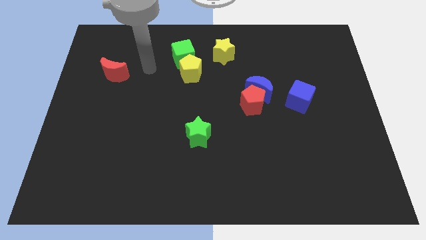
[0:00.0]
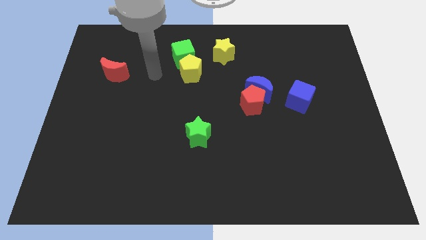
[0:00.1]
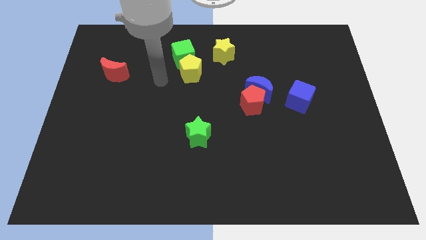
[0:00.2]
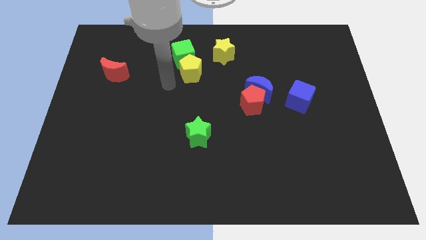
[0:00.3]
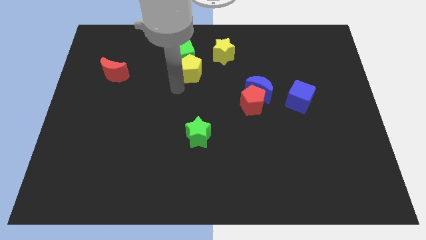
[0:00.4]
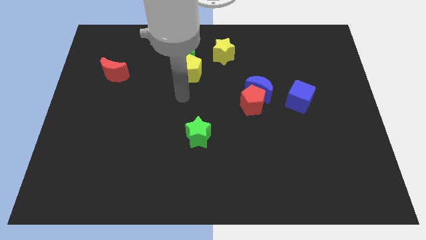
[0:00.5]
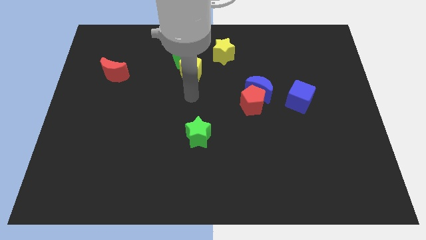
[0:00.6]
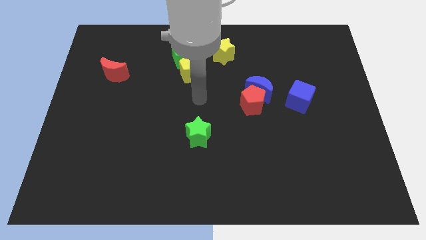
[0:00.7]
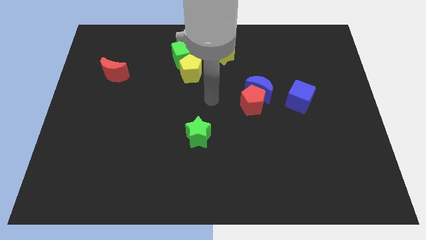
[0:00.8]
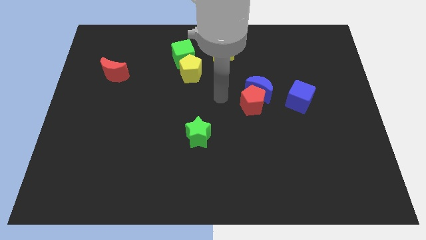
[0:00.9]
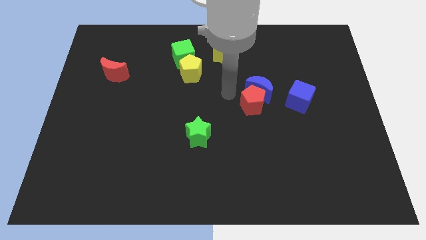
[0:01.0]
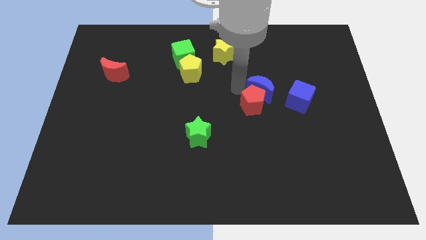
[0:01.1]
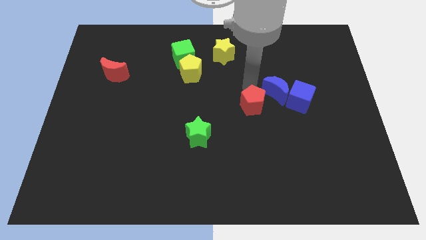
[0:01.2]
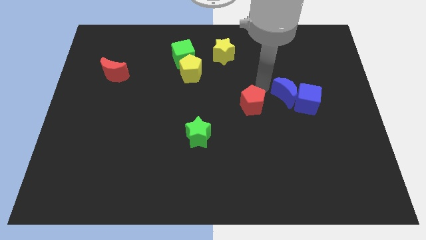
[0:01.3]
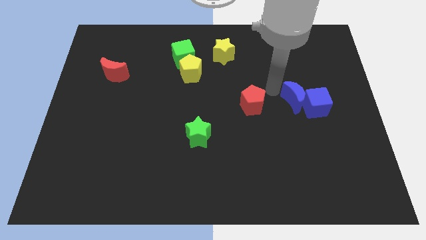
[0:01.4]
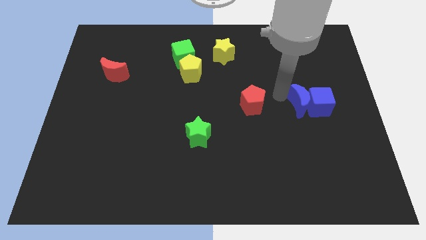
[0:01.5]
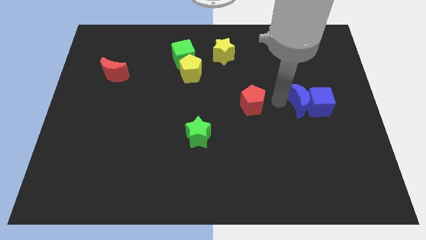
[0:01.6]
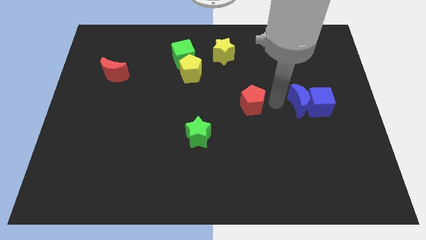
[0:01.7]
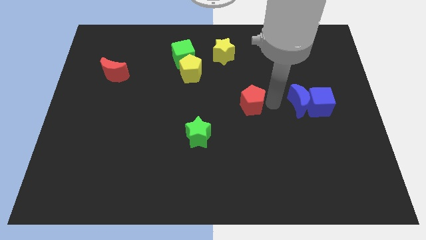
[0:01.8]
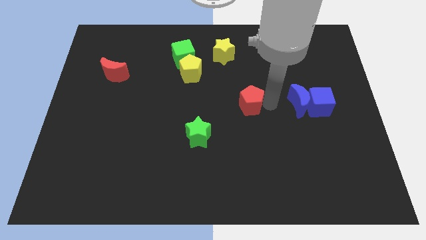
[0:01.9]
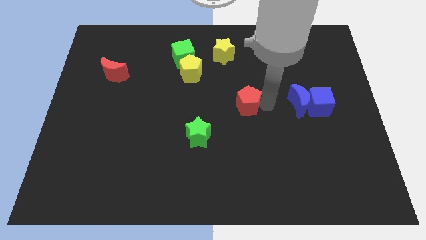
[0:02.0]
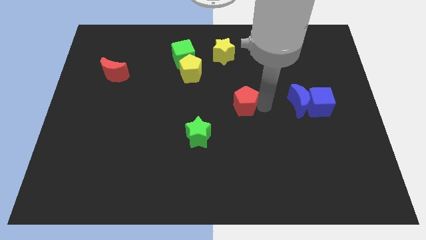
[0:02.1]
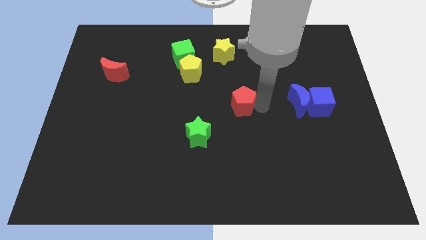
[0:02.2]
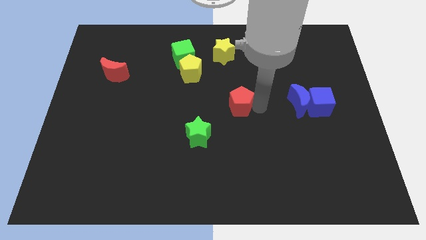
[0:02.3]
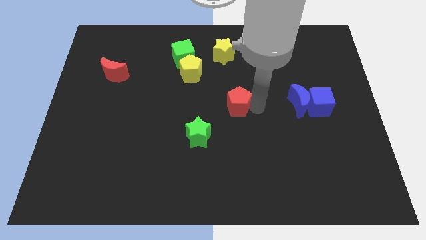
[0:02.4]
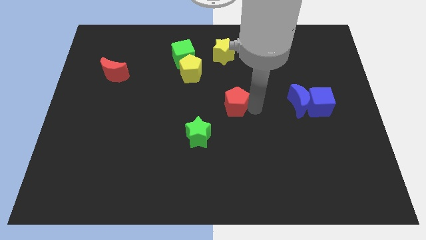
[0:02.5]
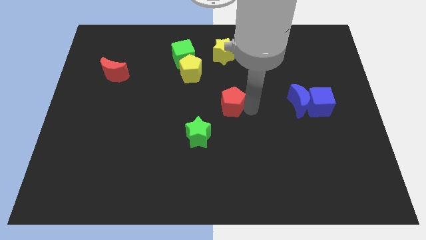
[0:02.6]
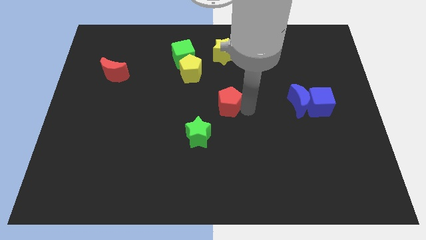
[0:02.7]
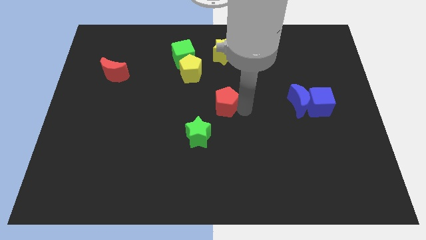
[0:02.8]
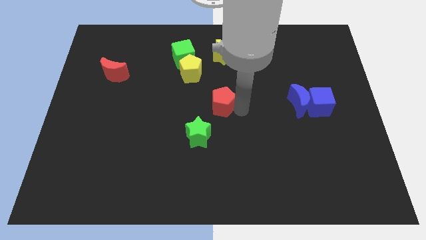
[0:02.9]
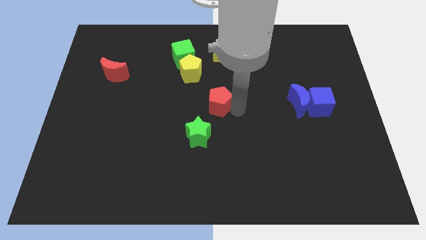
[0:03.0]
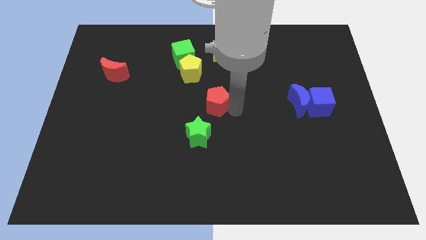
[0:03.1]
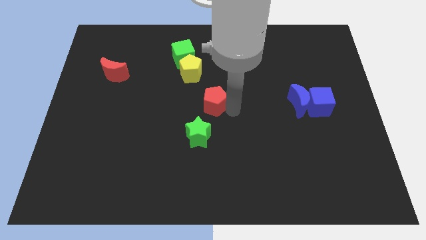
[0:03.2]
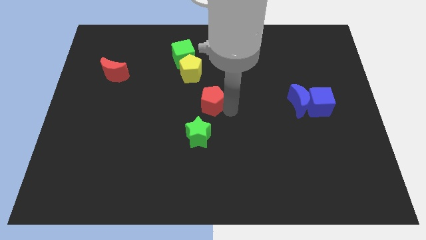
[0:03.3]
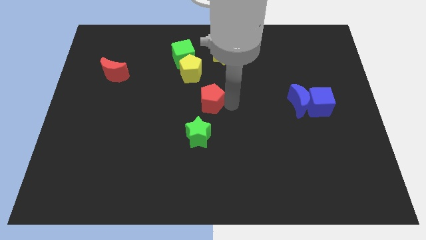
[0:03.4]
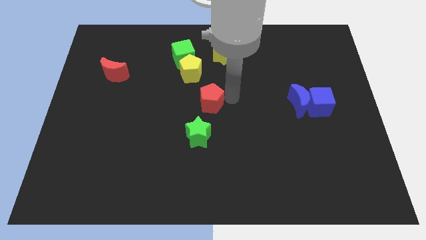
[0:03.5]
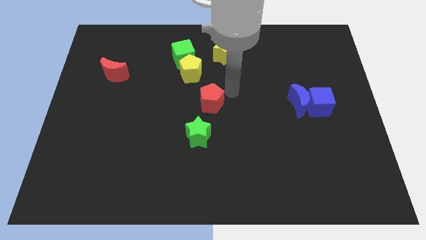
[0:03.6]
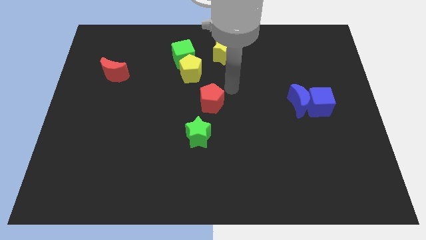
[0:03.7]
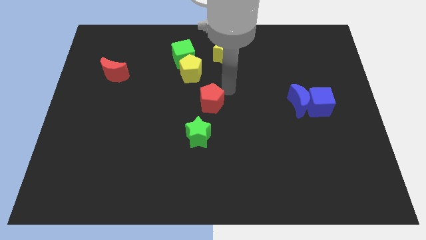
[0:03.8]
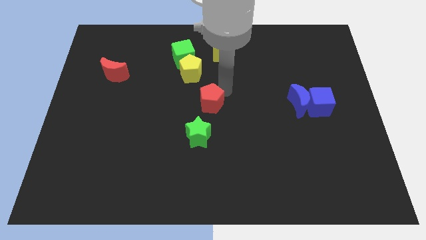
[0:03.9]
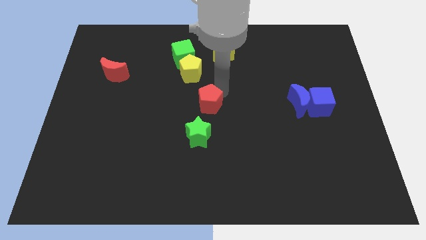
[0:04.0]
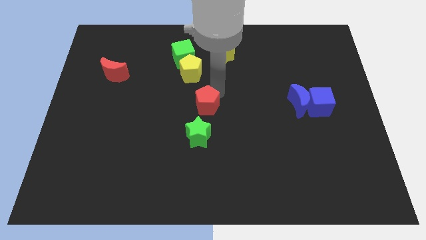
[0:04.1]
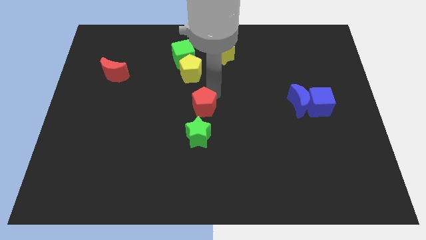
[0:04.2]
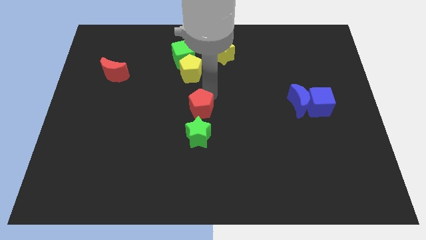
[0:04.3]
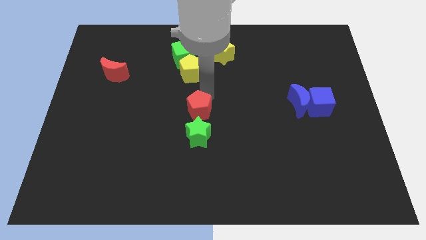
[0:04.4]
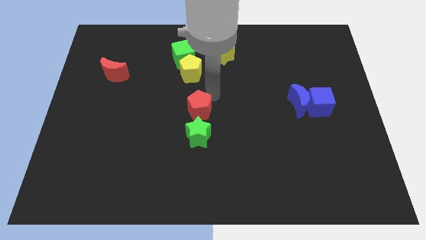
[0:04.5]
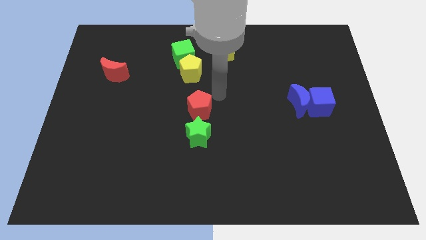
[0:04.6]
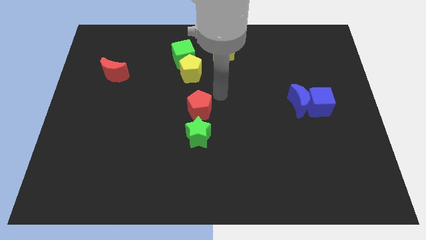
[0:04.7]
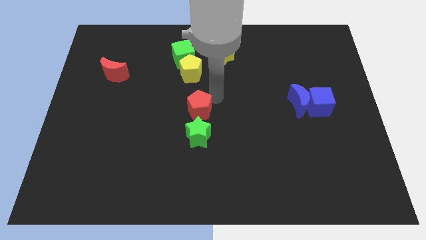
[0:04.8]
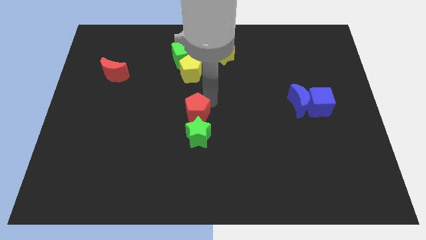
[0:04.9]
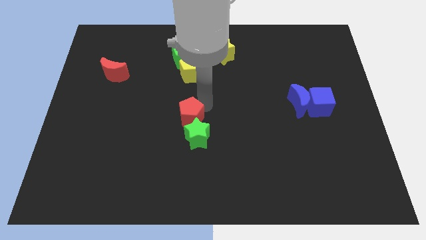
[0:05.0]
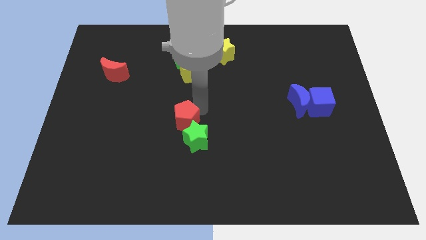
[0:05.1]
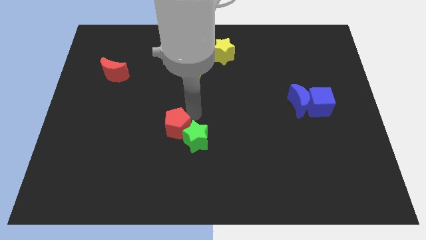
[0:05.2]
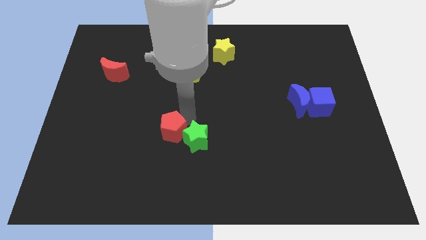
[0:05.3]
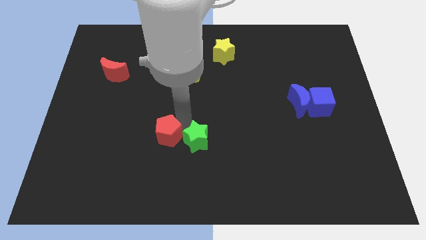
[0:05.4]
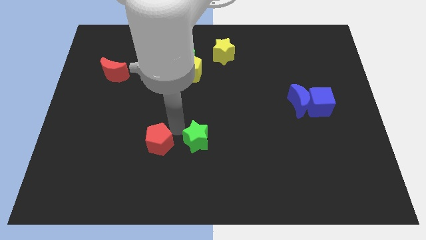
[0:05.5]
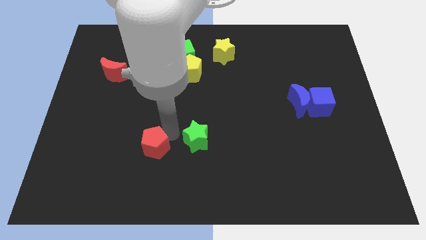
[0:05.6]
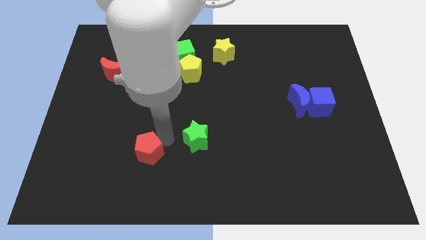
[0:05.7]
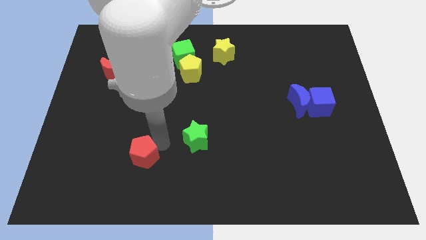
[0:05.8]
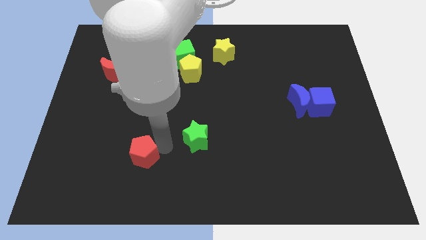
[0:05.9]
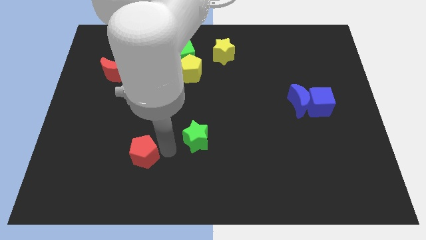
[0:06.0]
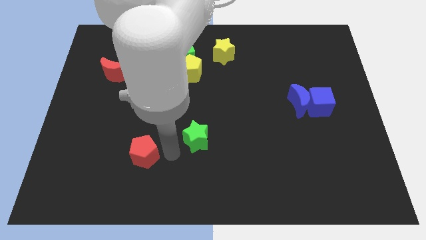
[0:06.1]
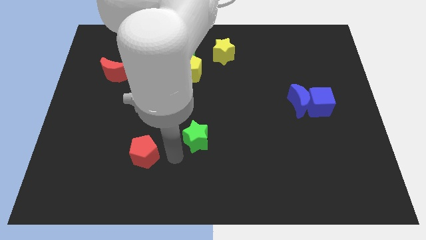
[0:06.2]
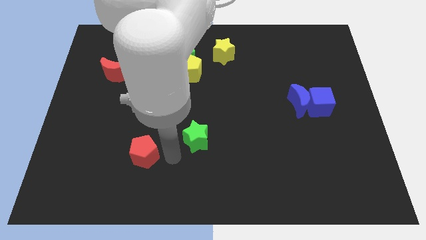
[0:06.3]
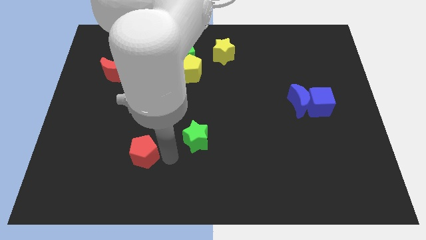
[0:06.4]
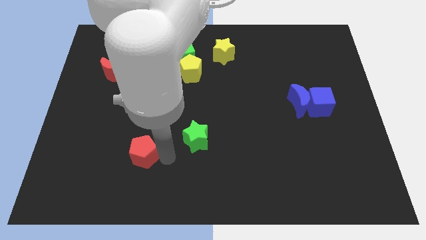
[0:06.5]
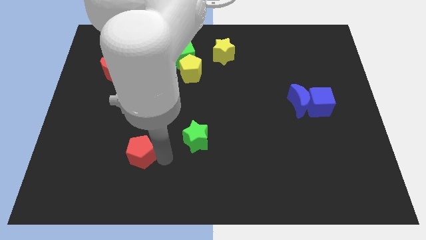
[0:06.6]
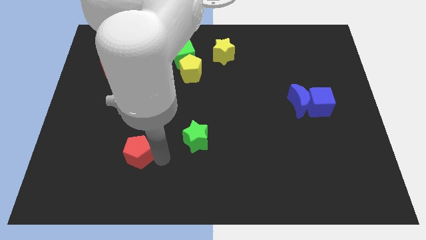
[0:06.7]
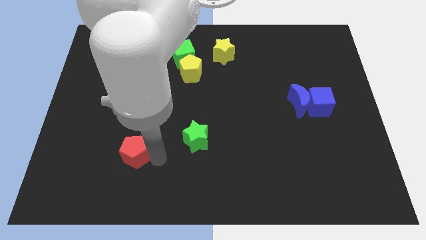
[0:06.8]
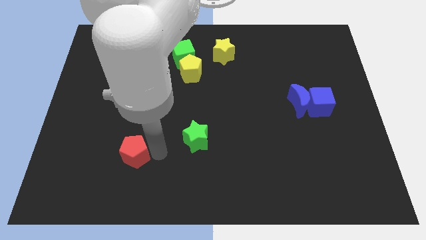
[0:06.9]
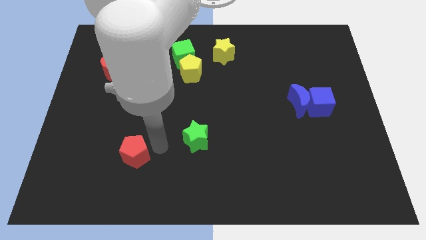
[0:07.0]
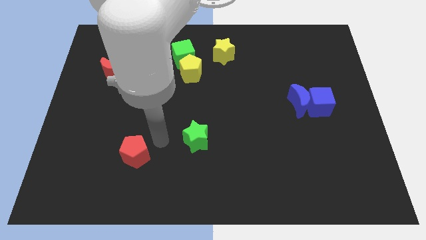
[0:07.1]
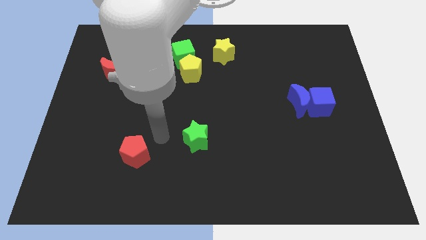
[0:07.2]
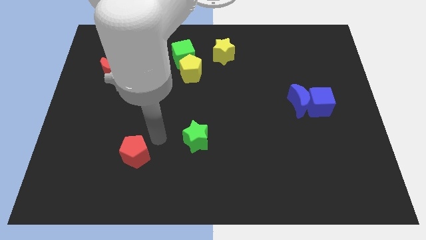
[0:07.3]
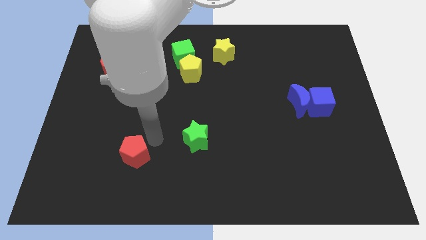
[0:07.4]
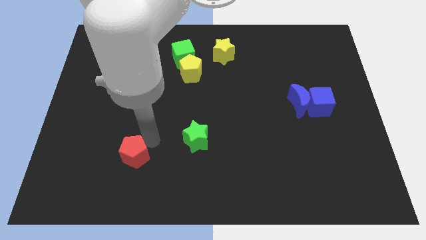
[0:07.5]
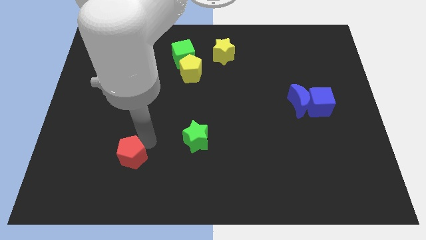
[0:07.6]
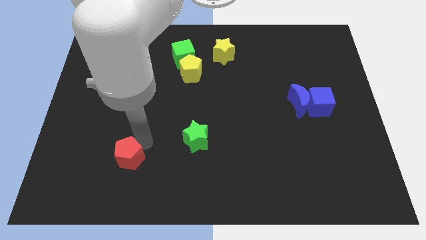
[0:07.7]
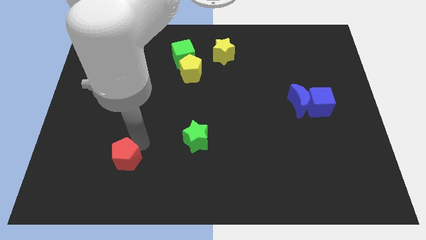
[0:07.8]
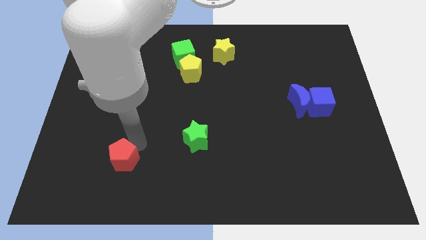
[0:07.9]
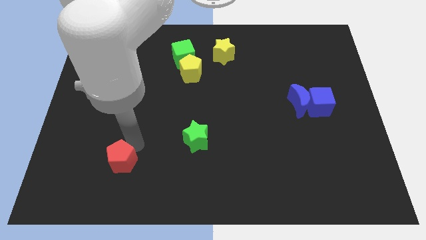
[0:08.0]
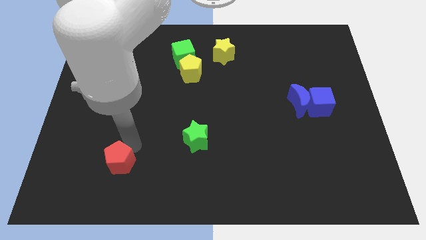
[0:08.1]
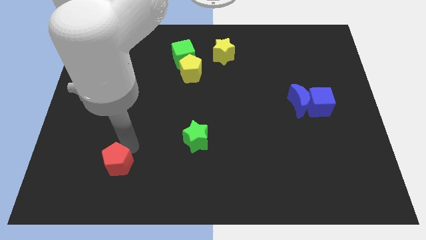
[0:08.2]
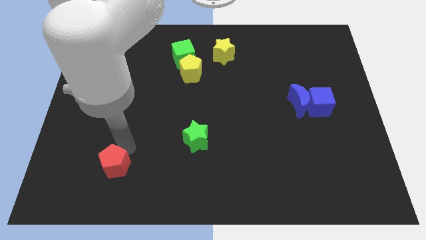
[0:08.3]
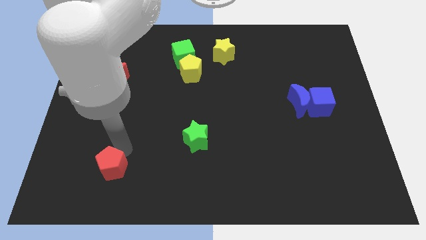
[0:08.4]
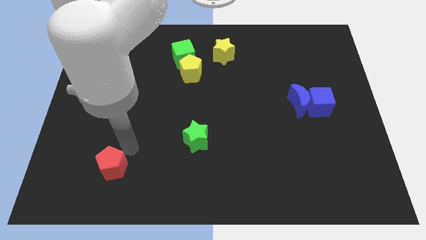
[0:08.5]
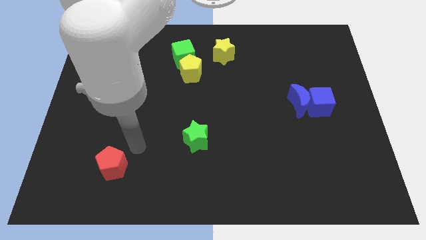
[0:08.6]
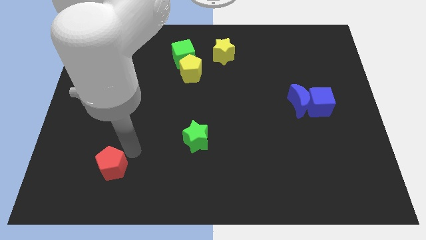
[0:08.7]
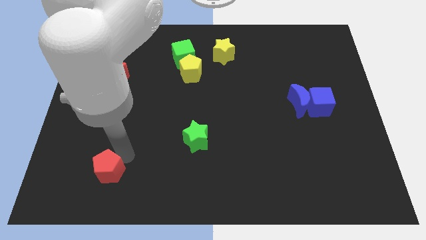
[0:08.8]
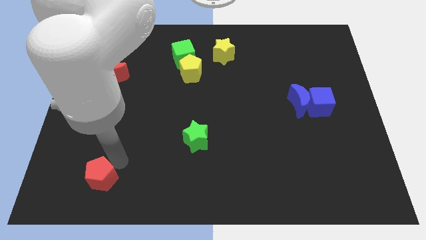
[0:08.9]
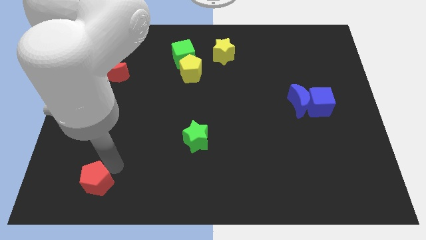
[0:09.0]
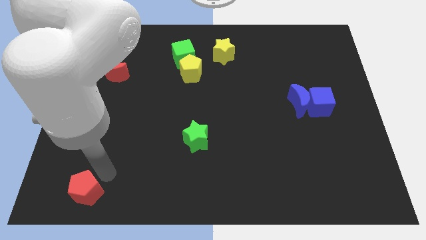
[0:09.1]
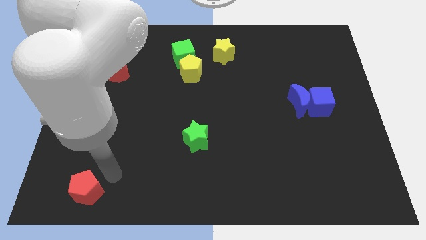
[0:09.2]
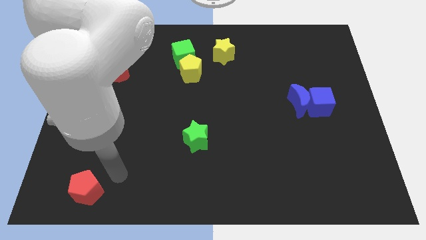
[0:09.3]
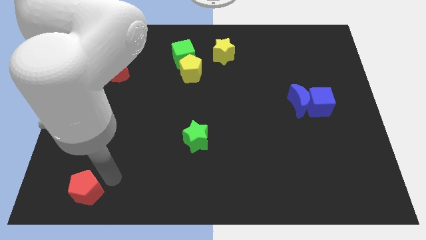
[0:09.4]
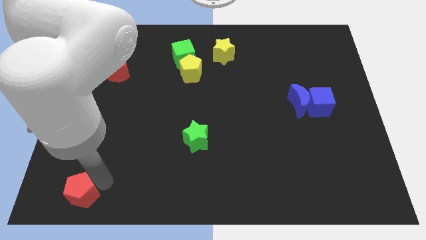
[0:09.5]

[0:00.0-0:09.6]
move the red pentagon to the bottom left
